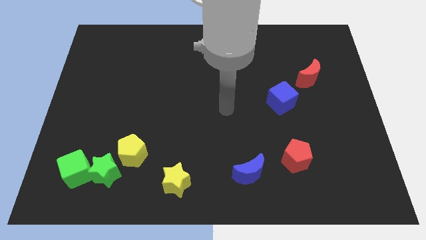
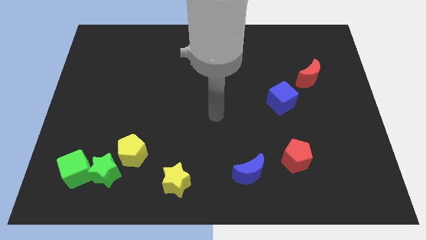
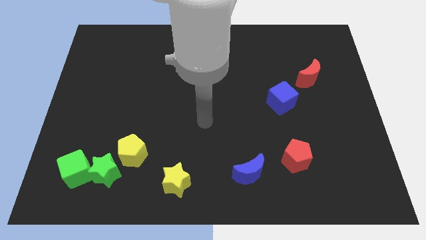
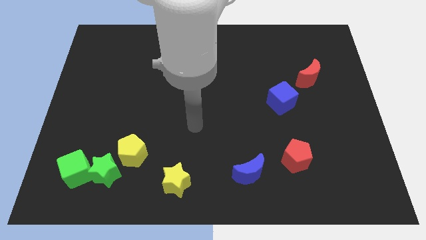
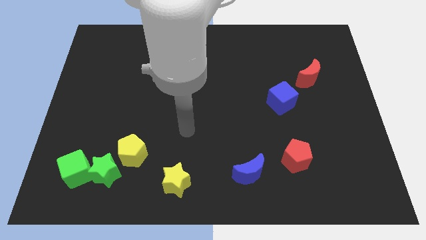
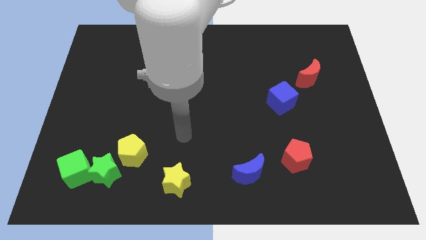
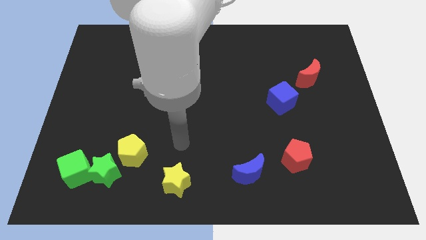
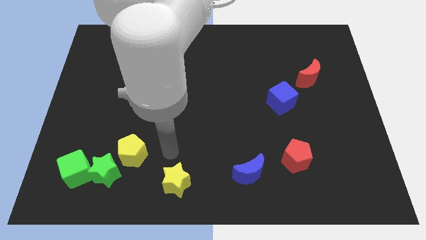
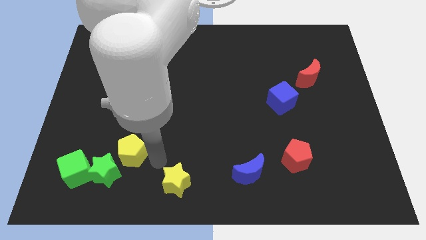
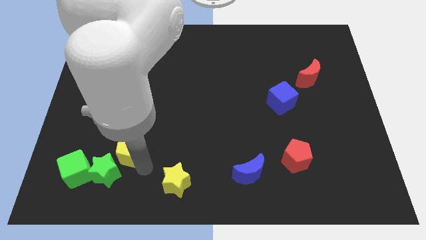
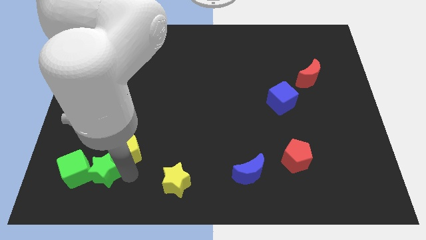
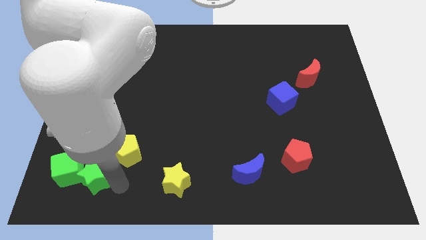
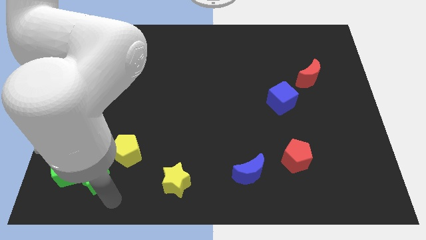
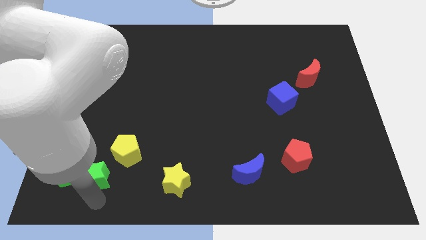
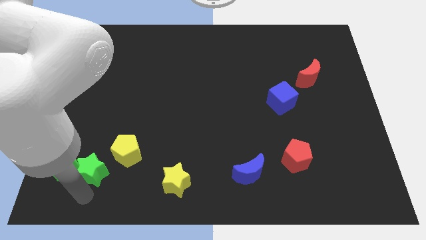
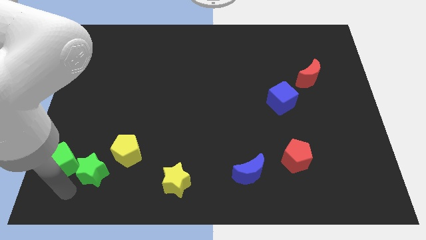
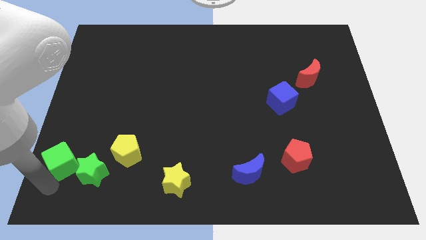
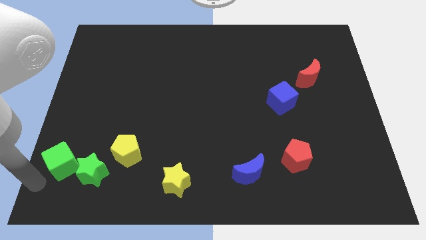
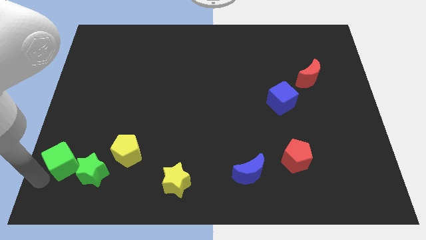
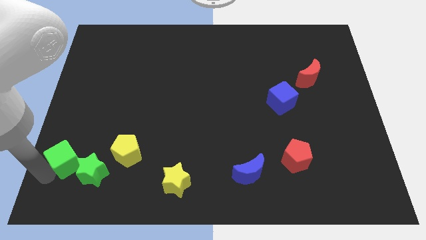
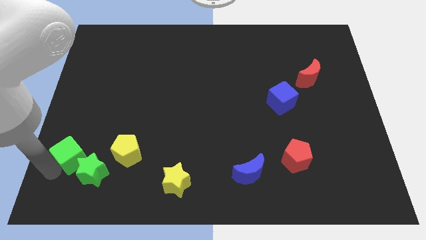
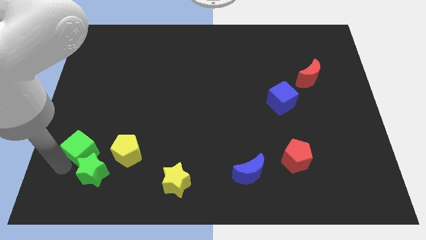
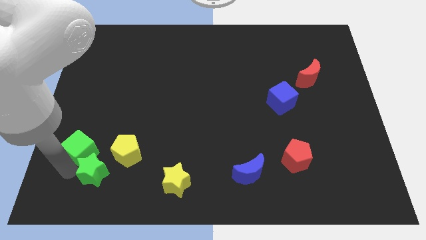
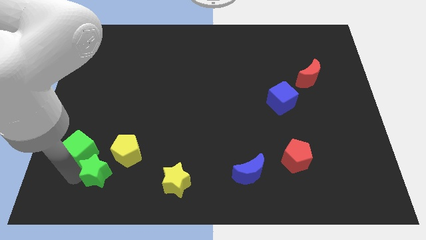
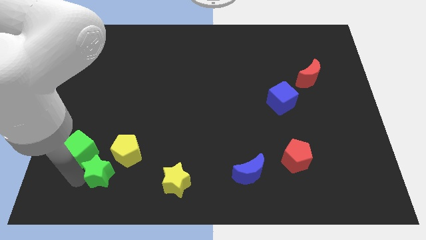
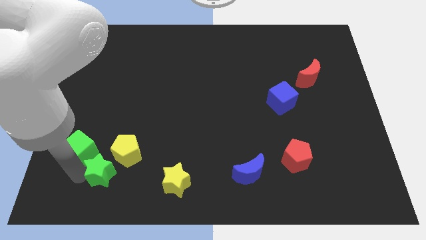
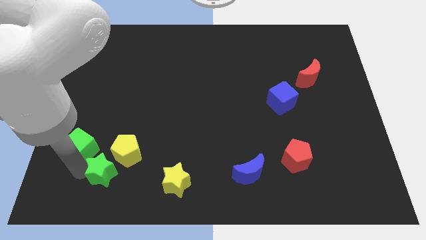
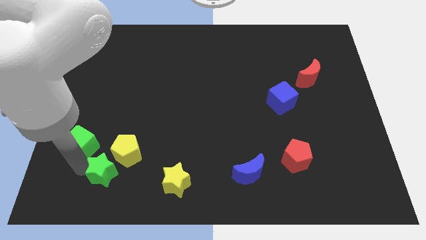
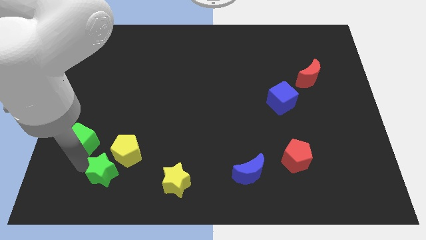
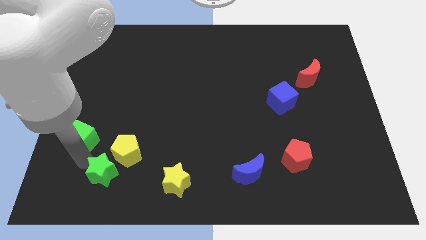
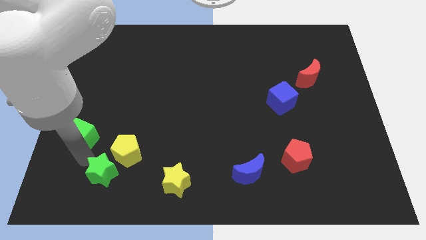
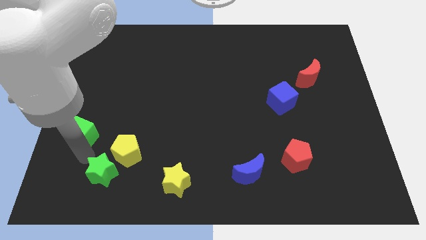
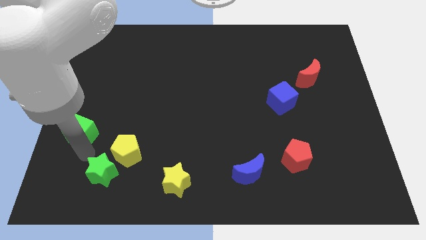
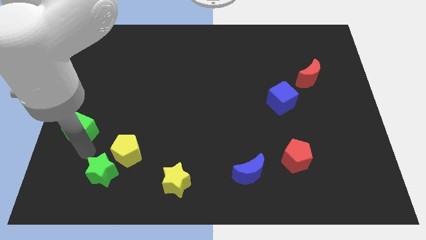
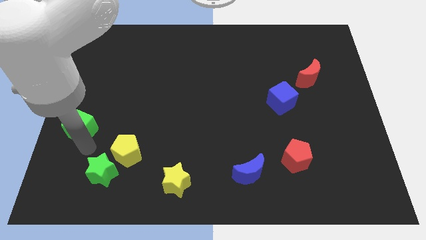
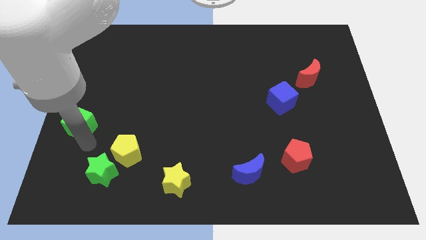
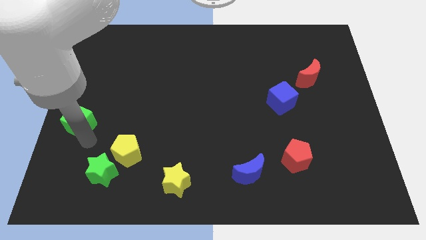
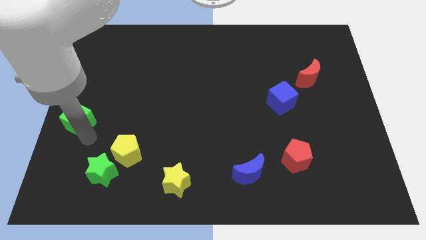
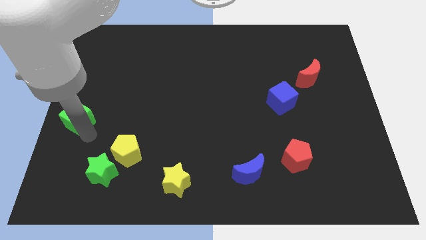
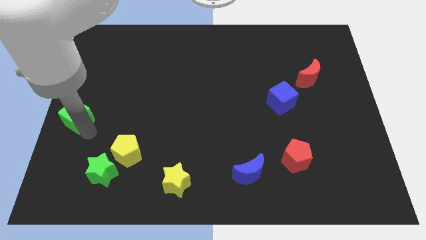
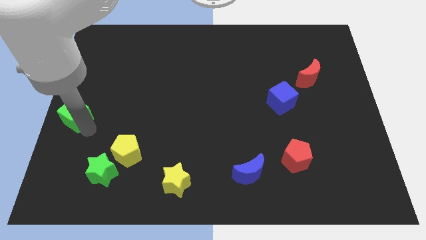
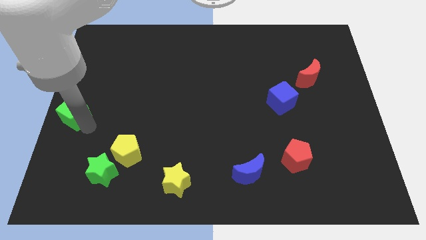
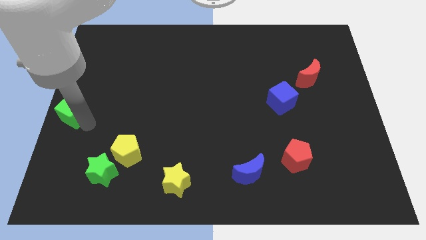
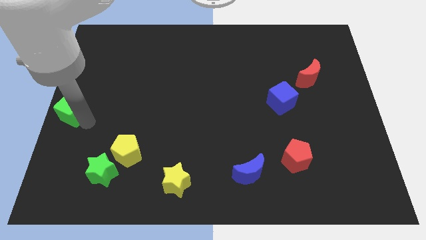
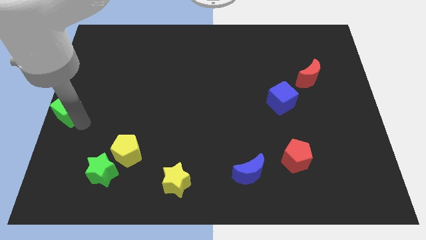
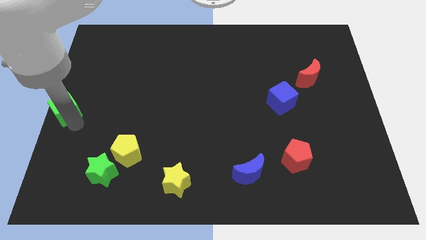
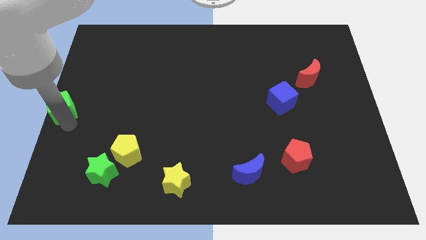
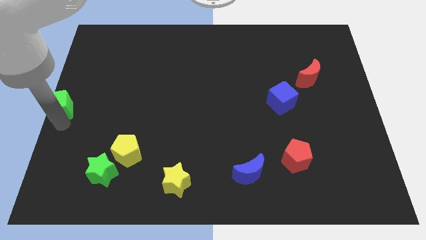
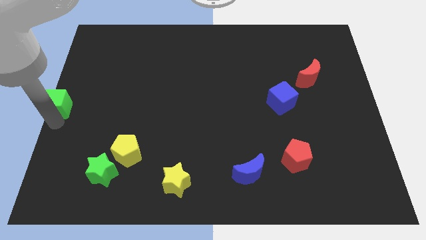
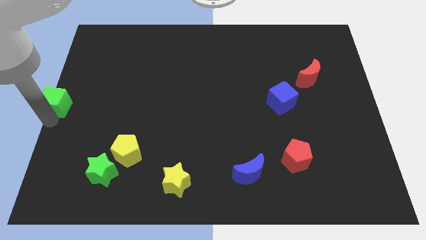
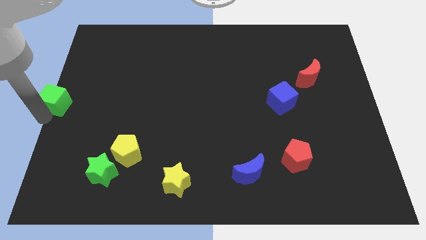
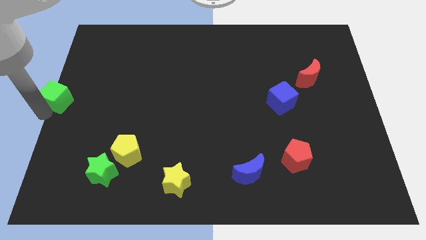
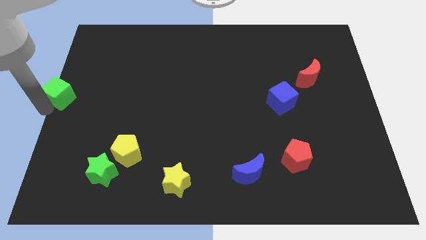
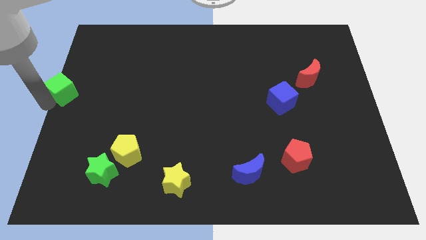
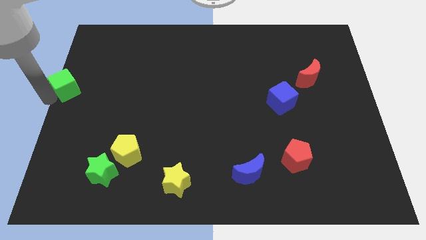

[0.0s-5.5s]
push the green cube upwards

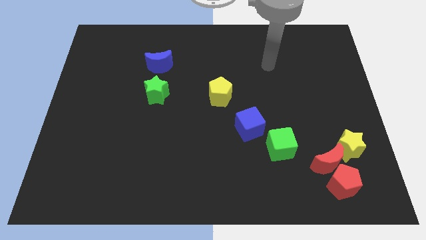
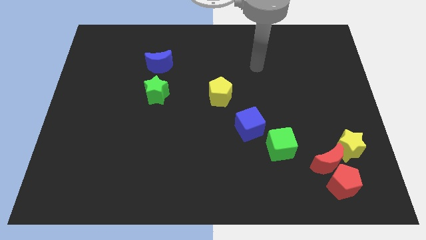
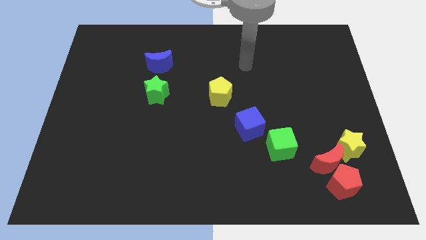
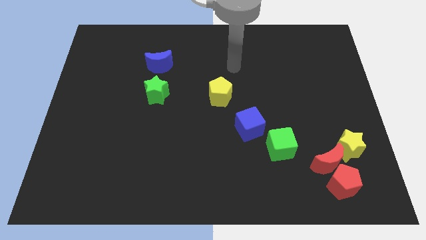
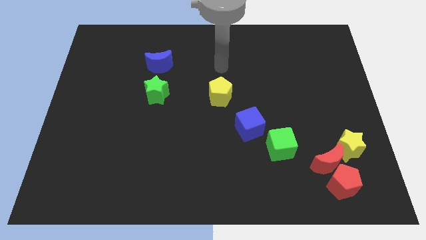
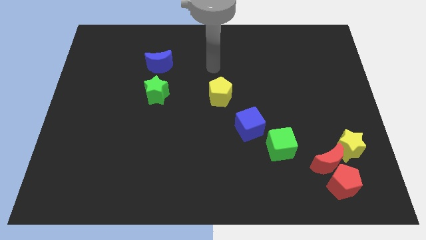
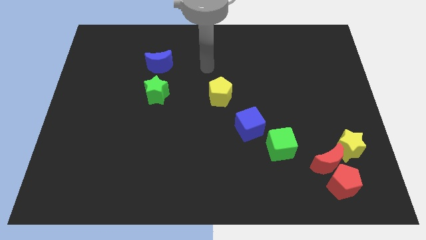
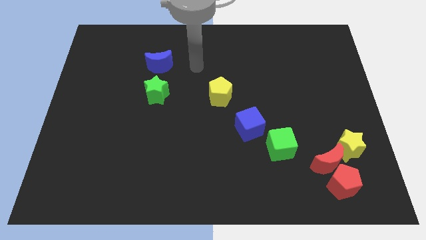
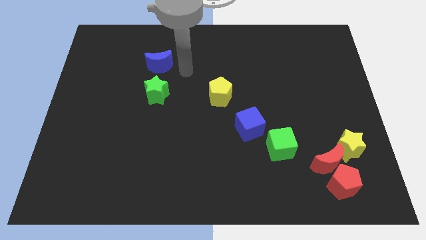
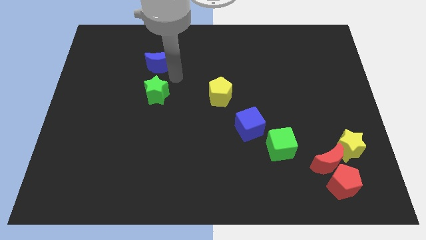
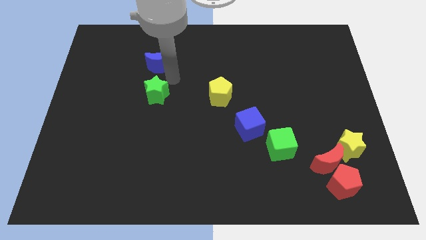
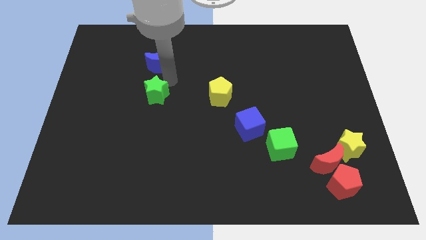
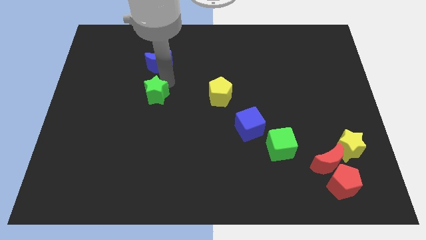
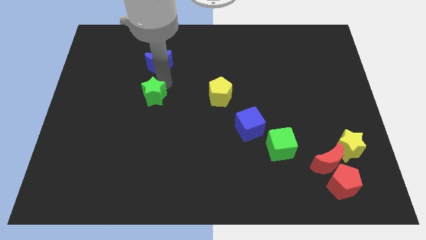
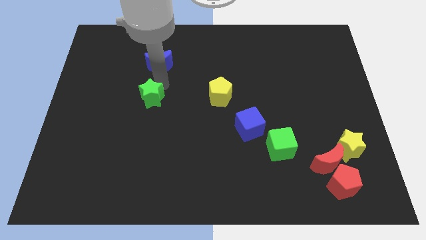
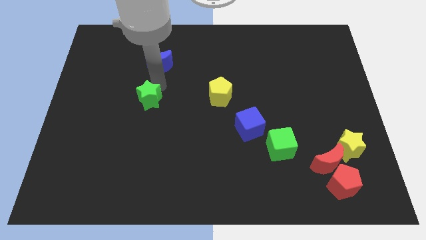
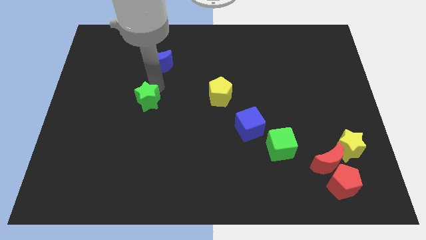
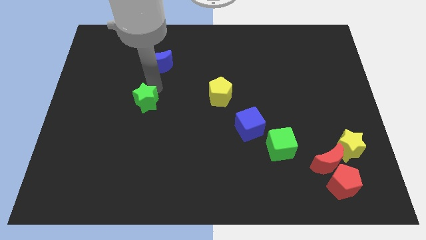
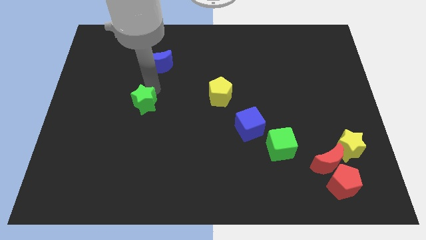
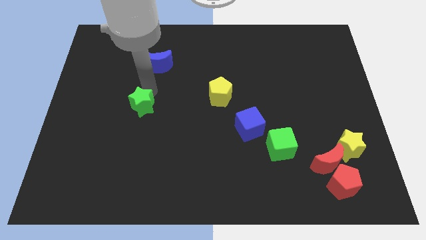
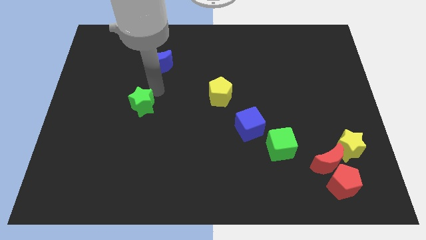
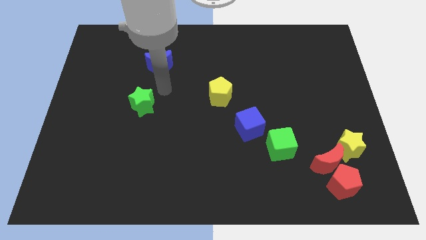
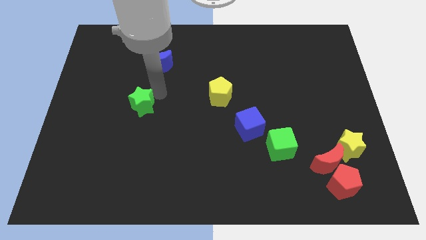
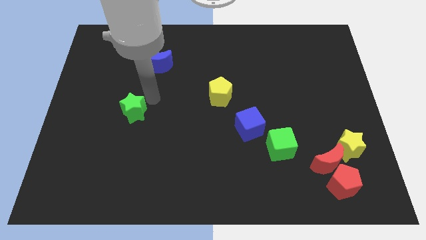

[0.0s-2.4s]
slightly slide the green star diagonally down and left

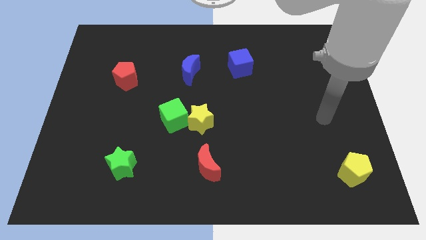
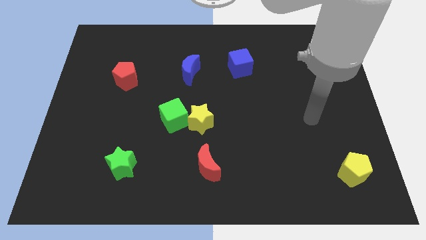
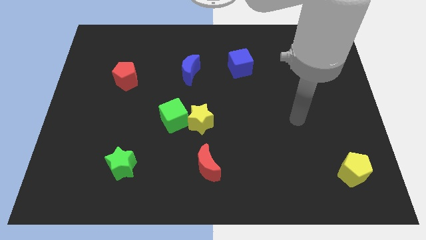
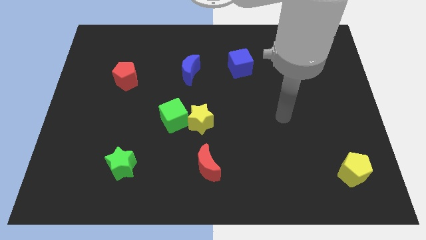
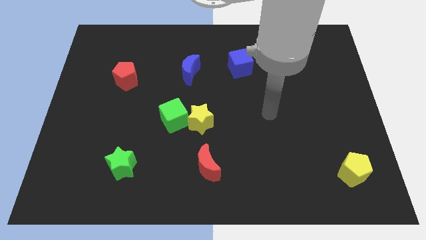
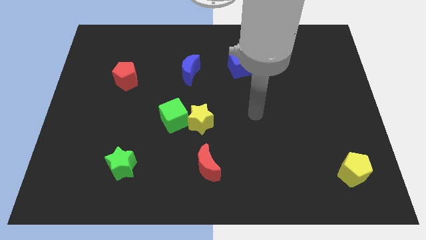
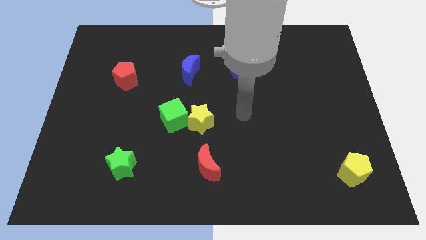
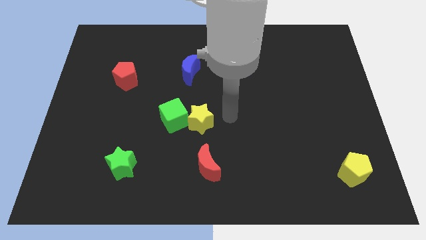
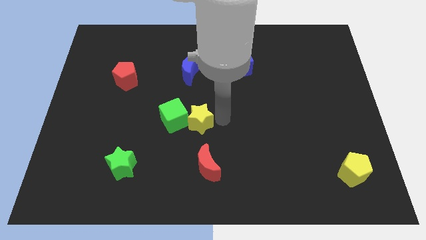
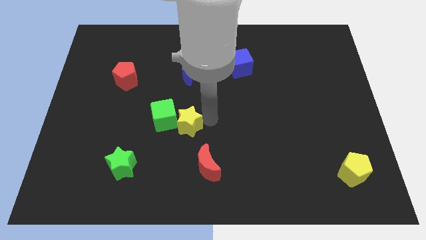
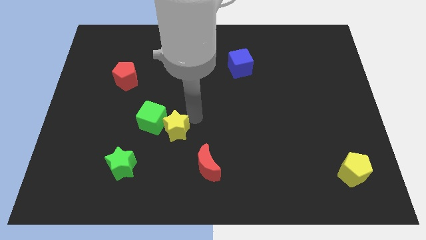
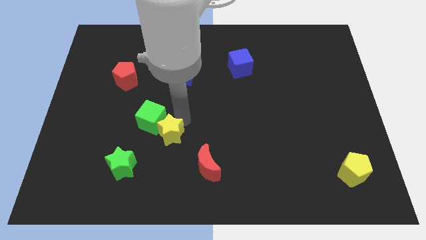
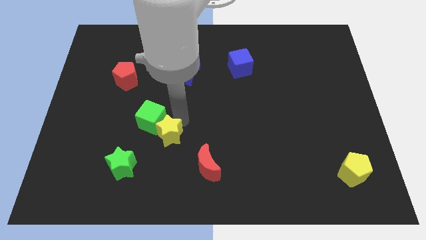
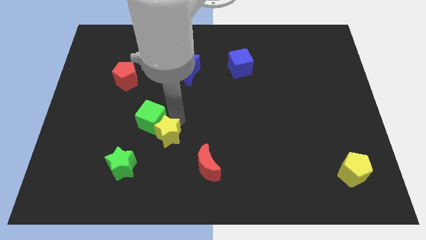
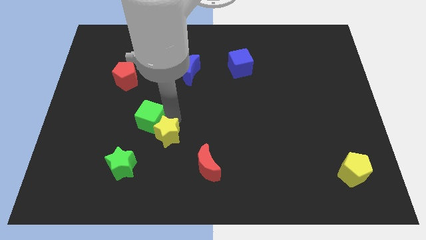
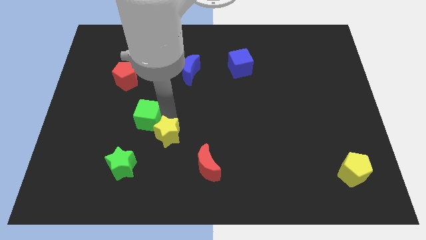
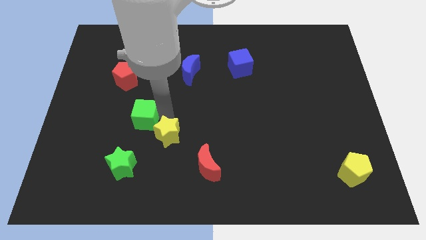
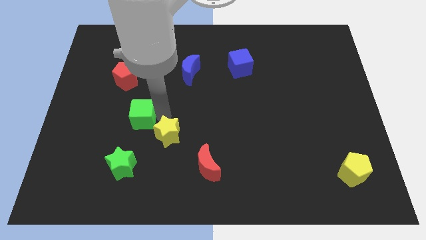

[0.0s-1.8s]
push the green cube a bit left
